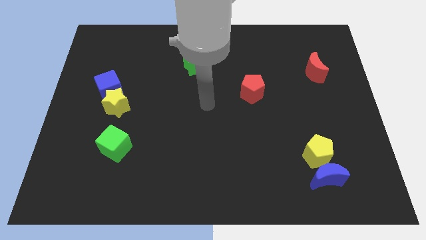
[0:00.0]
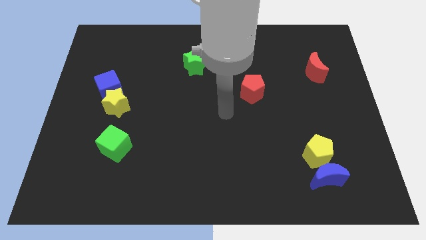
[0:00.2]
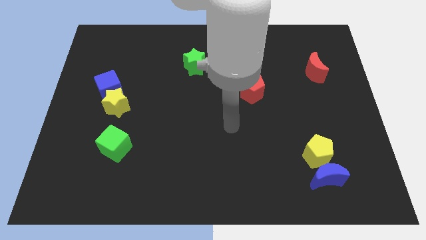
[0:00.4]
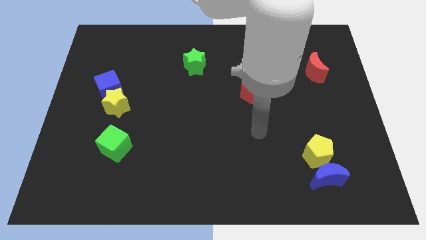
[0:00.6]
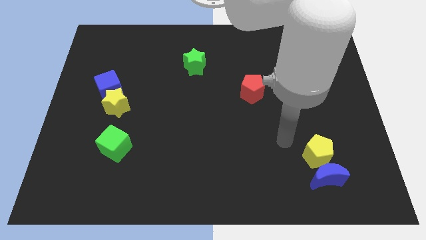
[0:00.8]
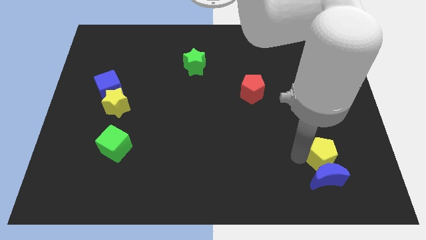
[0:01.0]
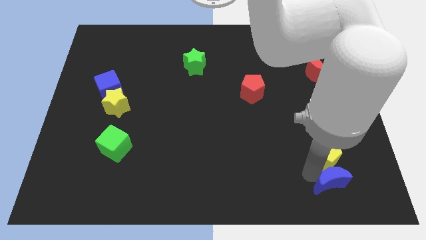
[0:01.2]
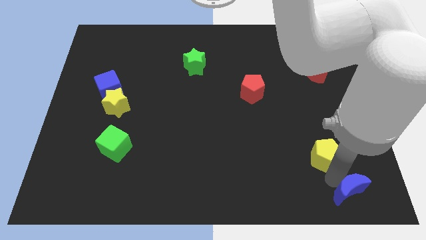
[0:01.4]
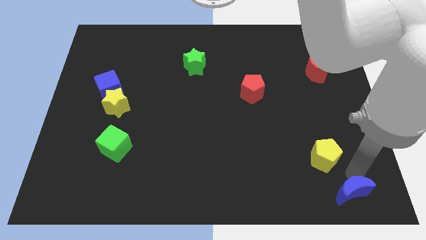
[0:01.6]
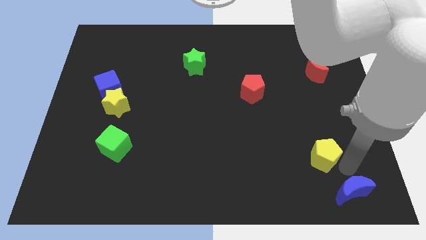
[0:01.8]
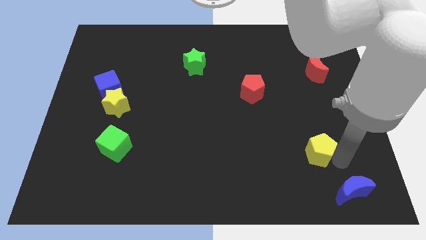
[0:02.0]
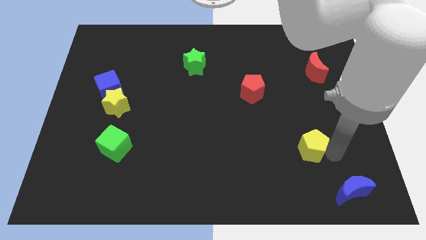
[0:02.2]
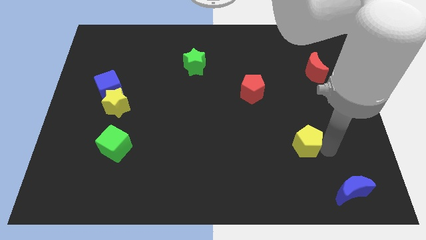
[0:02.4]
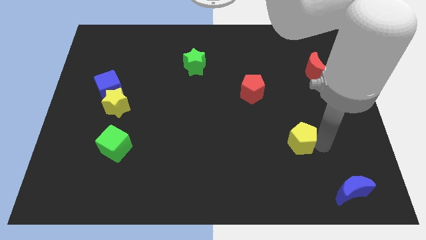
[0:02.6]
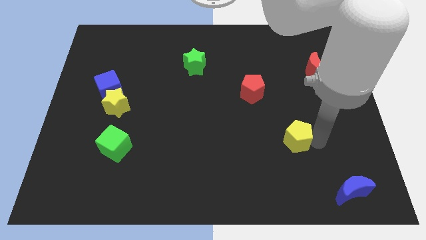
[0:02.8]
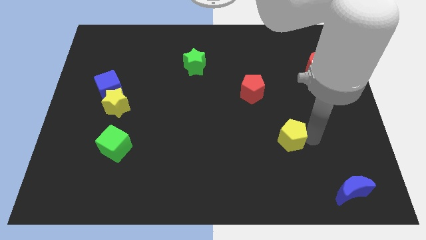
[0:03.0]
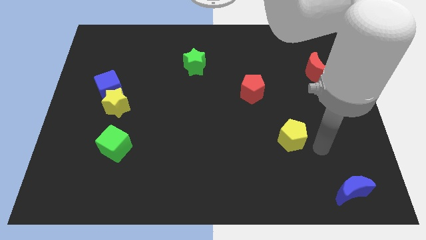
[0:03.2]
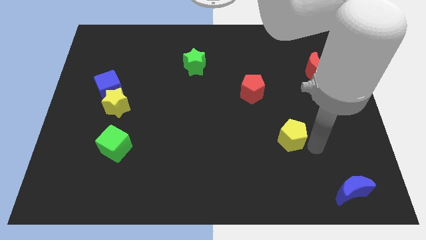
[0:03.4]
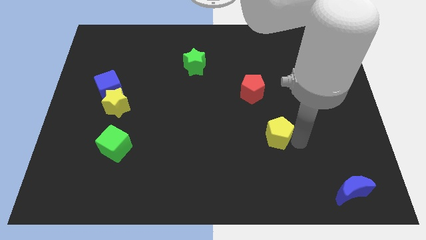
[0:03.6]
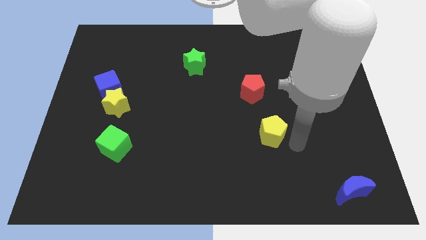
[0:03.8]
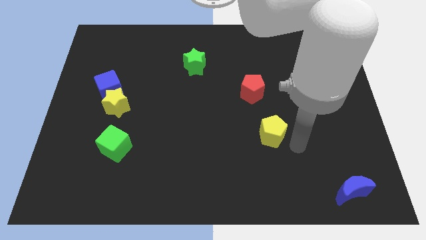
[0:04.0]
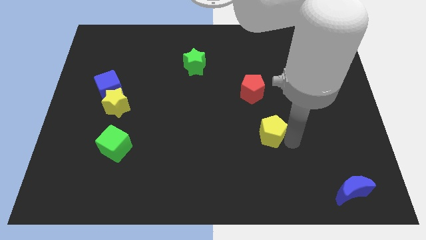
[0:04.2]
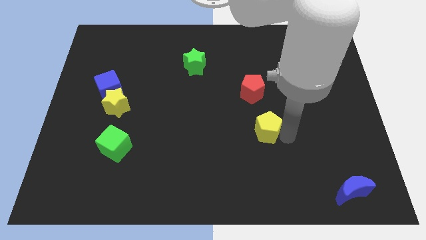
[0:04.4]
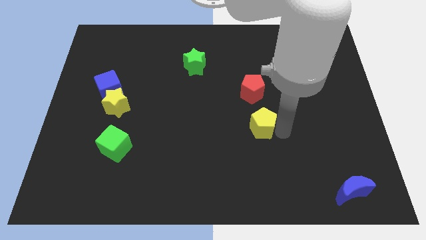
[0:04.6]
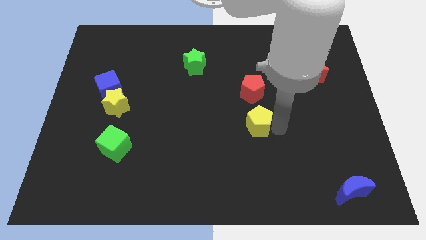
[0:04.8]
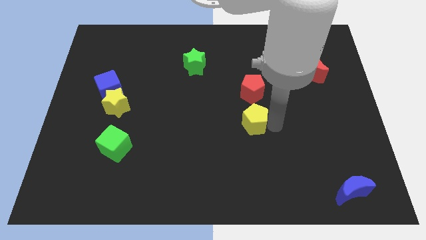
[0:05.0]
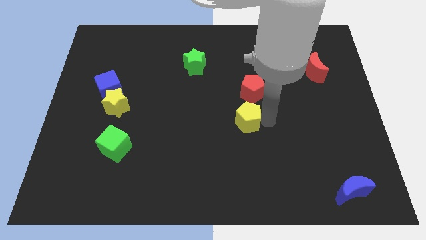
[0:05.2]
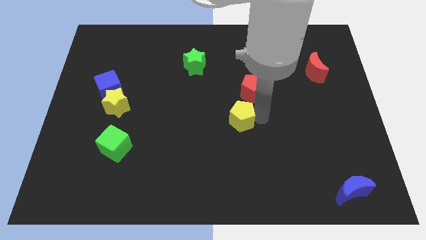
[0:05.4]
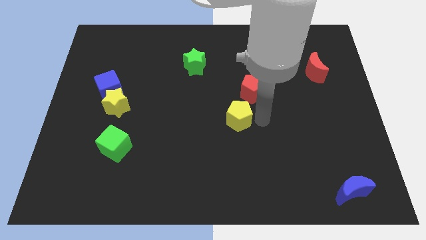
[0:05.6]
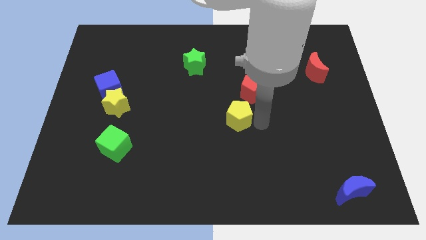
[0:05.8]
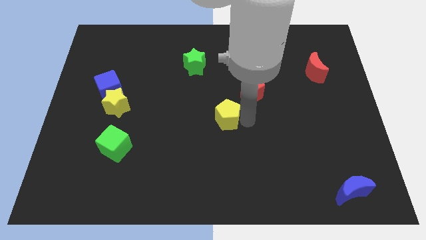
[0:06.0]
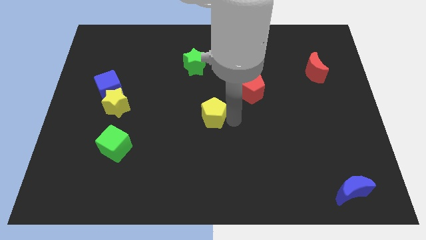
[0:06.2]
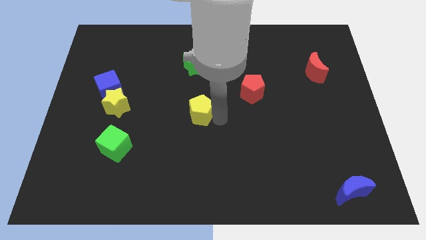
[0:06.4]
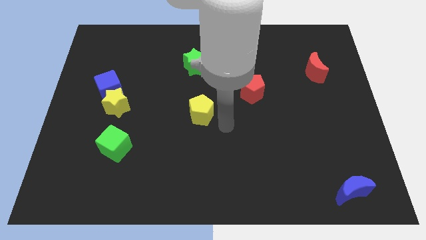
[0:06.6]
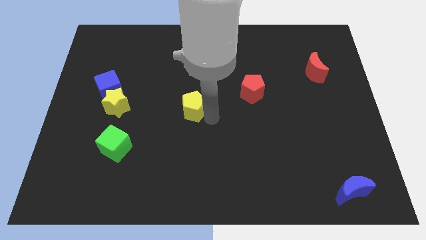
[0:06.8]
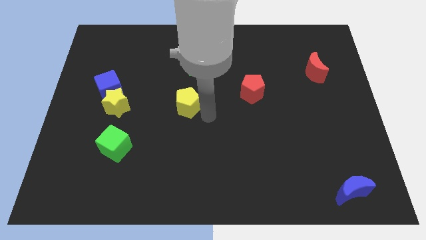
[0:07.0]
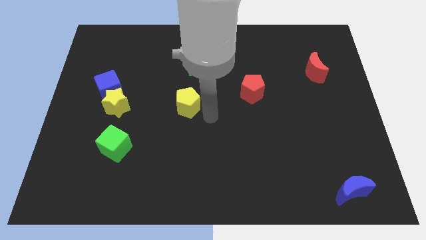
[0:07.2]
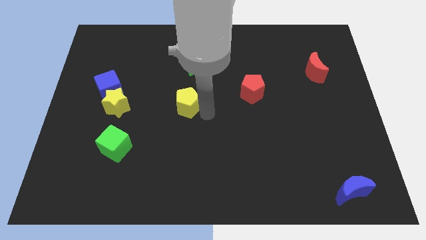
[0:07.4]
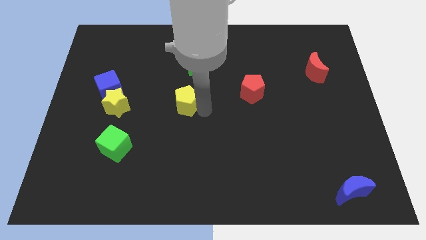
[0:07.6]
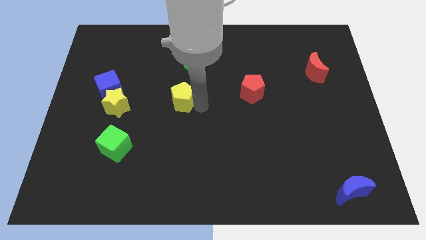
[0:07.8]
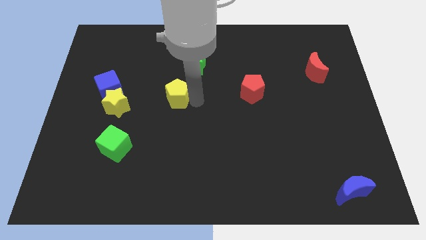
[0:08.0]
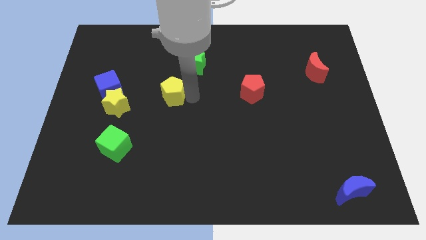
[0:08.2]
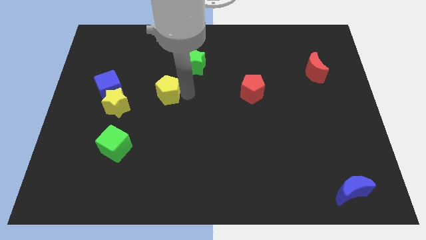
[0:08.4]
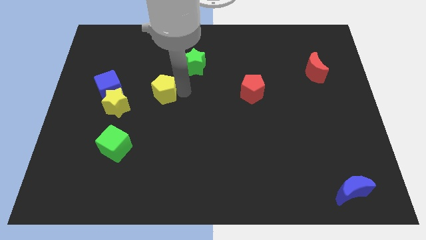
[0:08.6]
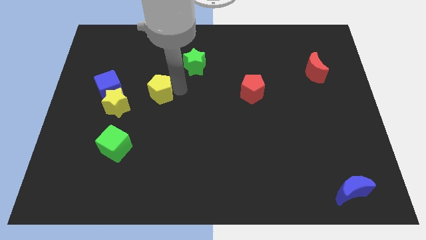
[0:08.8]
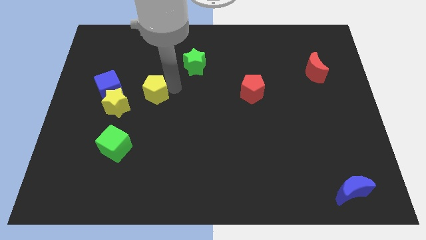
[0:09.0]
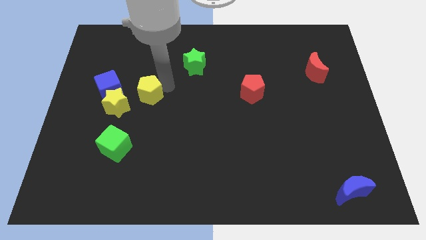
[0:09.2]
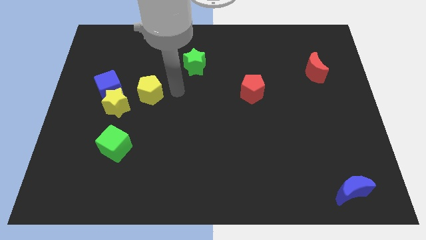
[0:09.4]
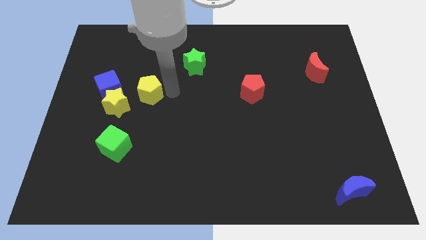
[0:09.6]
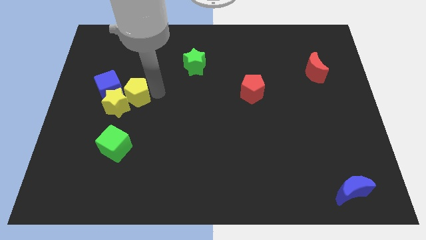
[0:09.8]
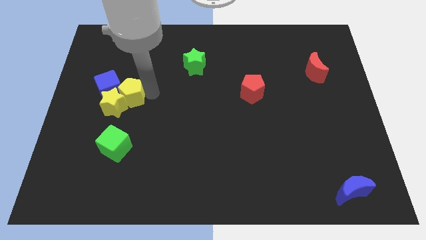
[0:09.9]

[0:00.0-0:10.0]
slide the yellow pentagon towards the blue cube

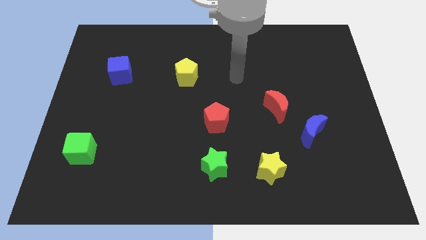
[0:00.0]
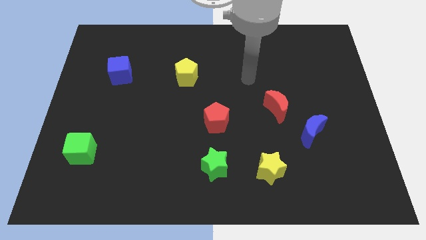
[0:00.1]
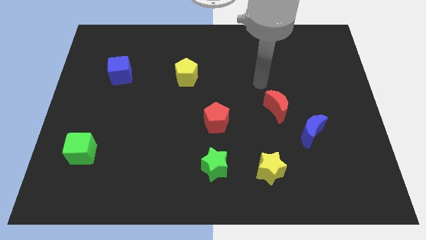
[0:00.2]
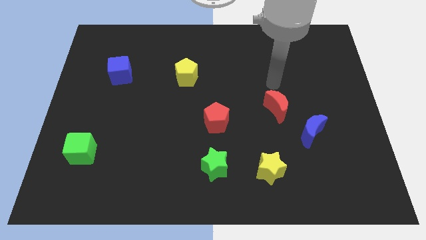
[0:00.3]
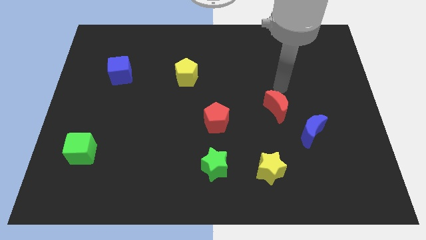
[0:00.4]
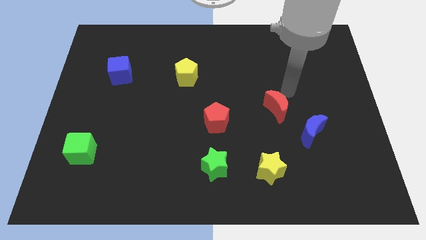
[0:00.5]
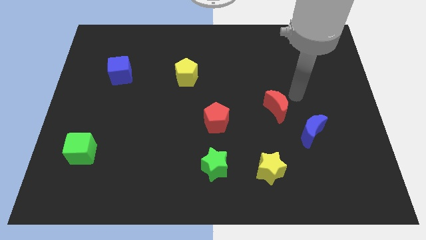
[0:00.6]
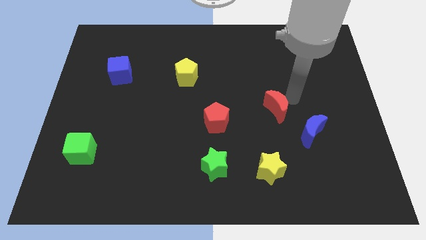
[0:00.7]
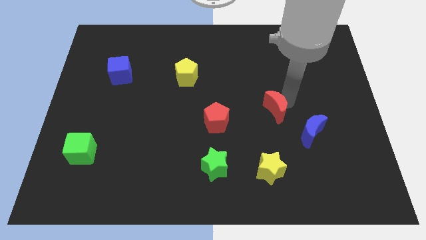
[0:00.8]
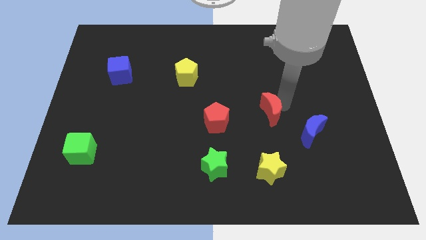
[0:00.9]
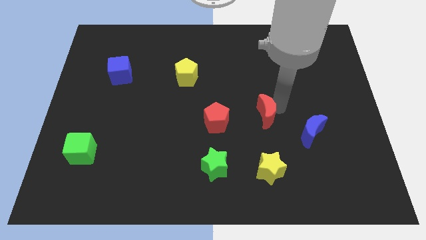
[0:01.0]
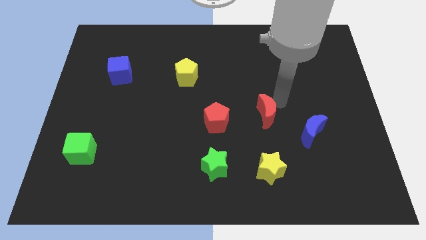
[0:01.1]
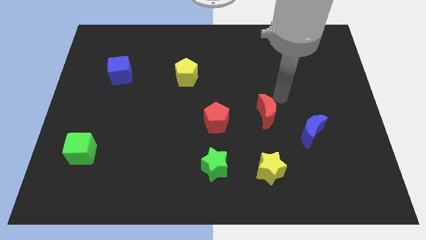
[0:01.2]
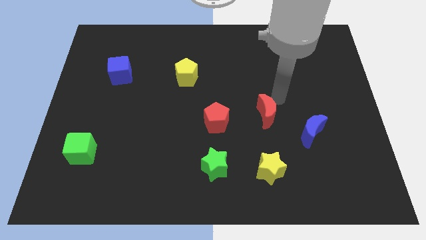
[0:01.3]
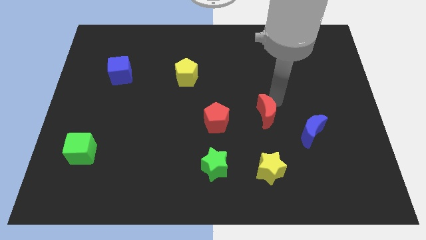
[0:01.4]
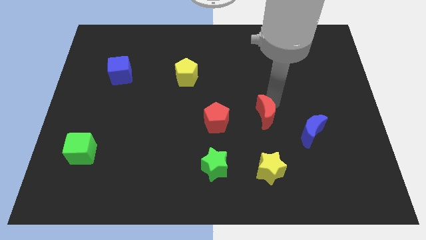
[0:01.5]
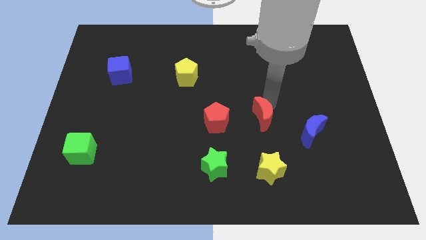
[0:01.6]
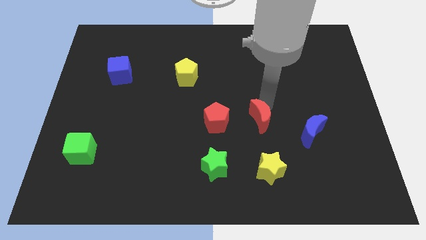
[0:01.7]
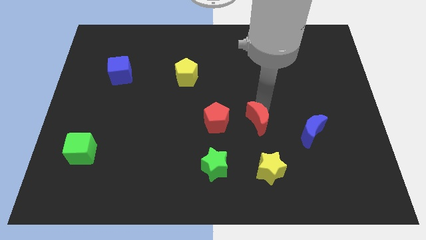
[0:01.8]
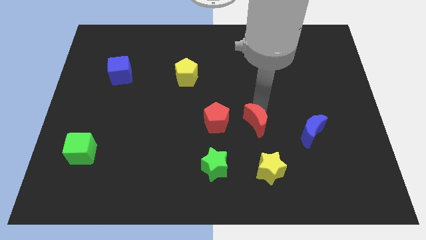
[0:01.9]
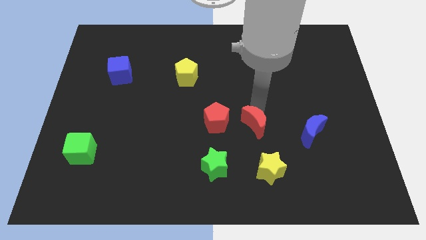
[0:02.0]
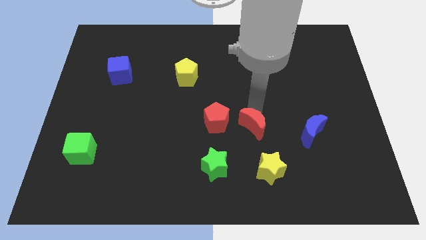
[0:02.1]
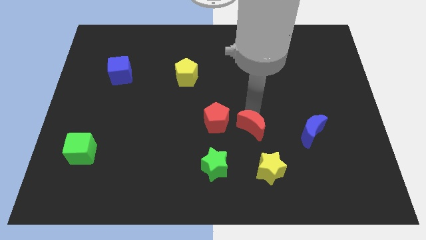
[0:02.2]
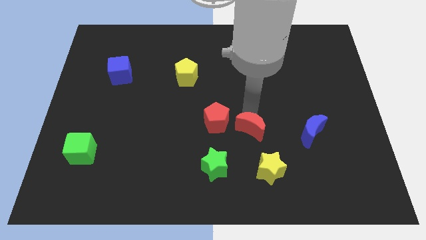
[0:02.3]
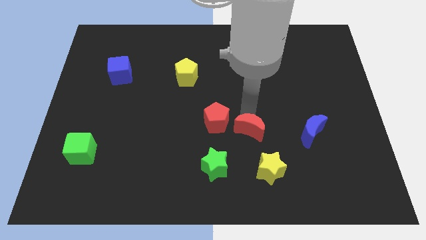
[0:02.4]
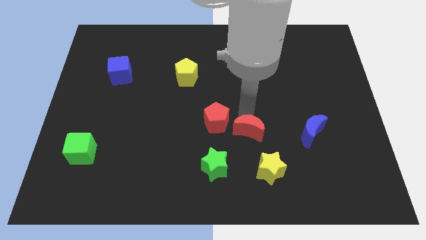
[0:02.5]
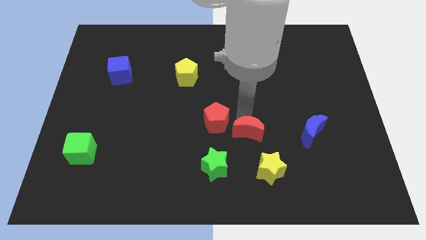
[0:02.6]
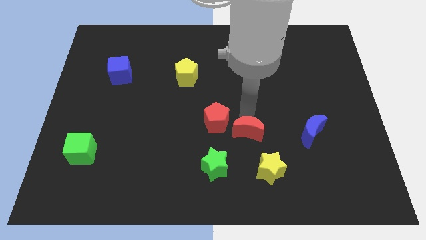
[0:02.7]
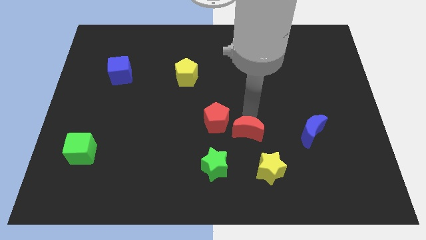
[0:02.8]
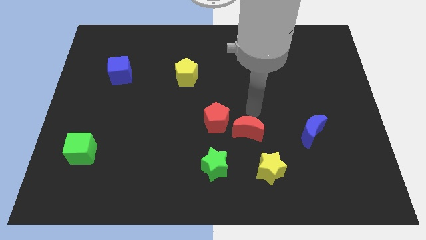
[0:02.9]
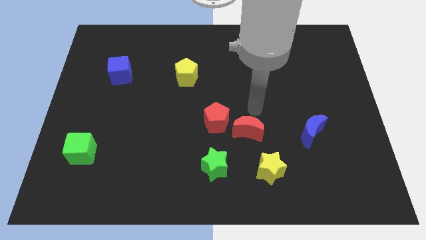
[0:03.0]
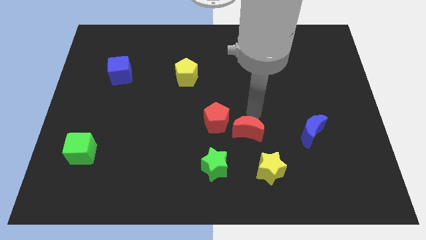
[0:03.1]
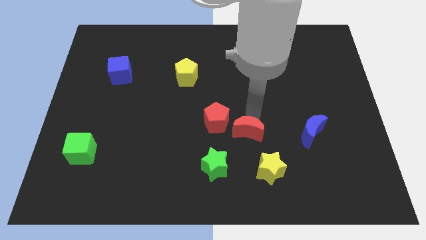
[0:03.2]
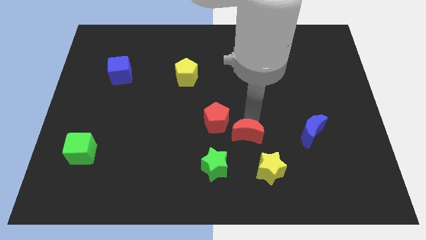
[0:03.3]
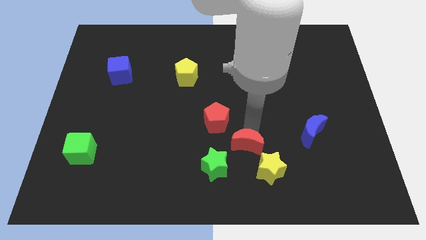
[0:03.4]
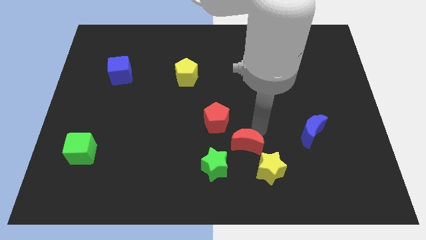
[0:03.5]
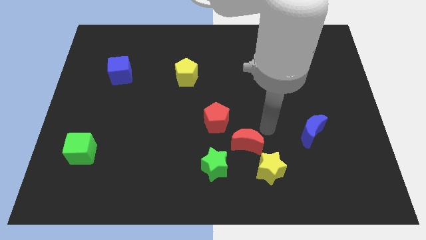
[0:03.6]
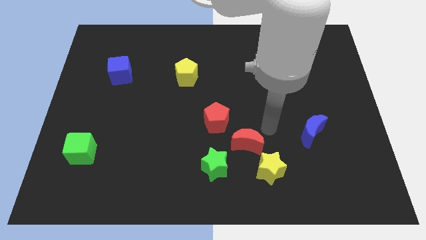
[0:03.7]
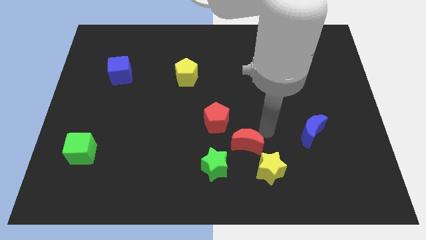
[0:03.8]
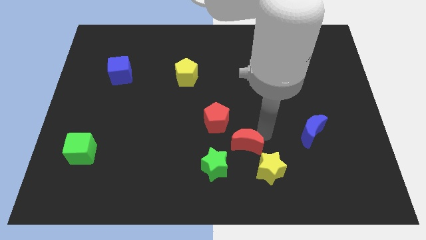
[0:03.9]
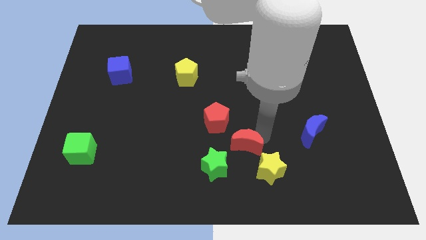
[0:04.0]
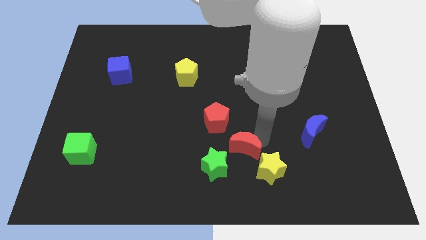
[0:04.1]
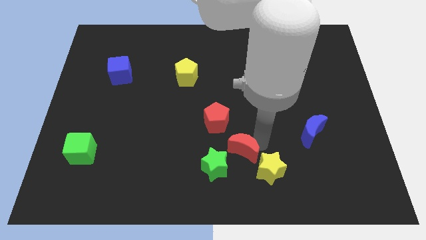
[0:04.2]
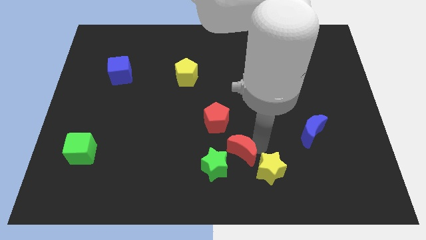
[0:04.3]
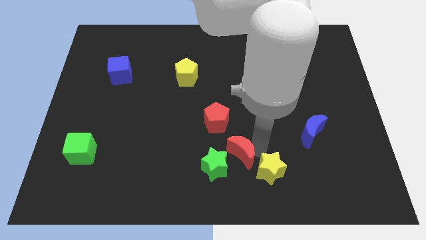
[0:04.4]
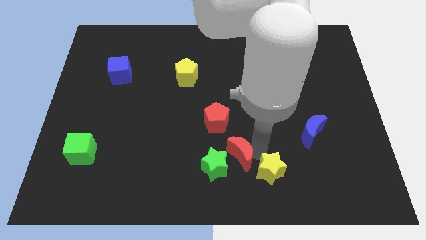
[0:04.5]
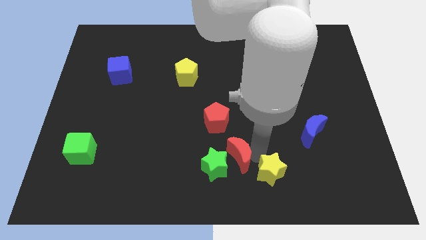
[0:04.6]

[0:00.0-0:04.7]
put the red moon towards the green star
